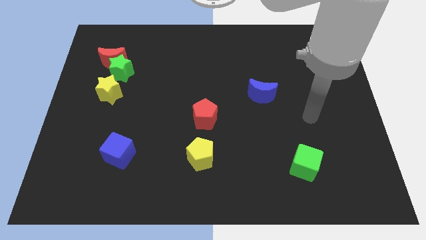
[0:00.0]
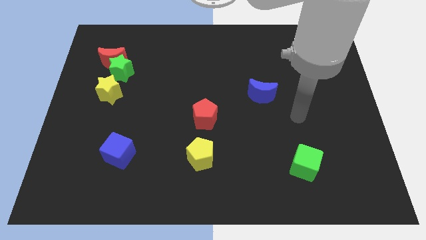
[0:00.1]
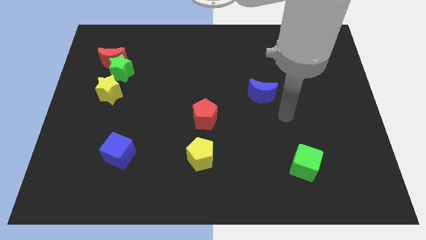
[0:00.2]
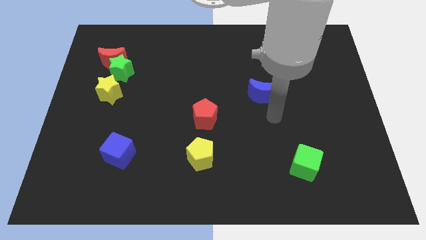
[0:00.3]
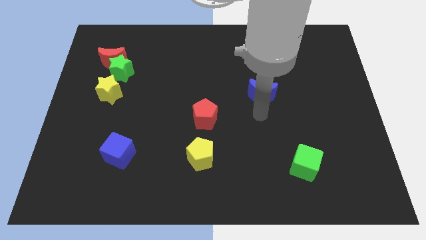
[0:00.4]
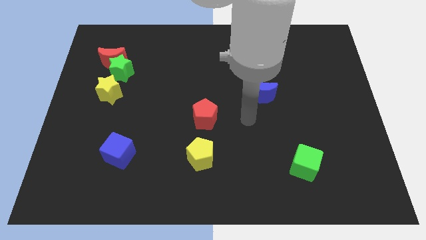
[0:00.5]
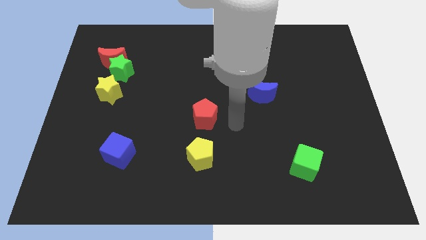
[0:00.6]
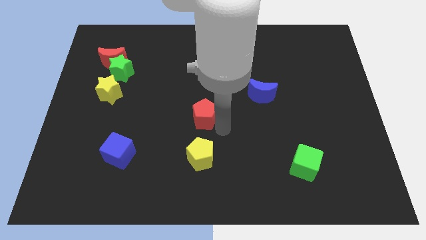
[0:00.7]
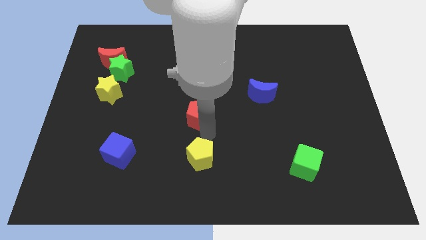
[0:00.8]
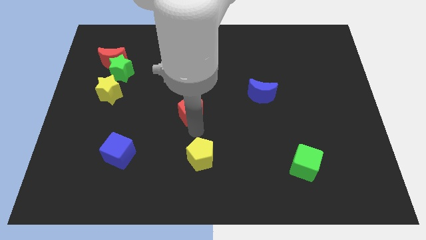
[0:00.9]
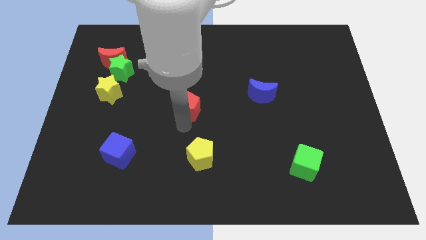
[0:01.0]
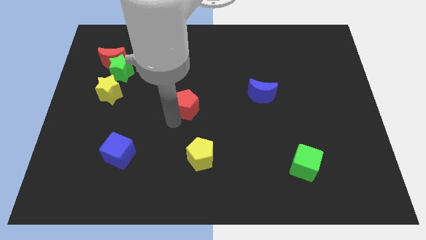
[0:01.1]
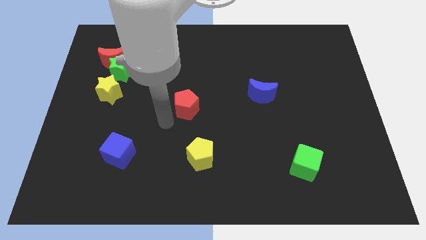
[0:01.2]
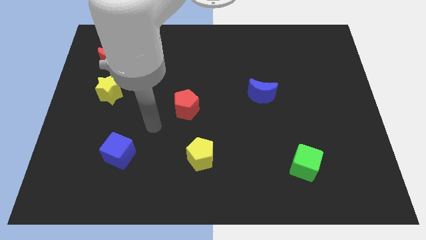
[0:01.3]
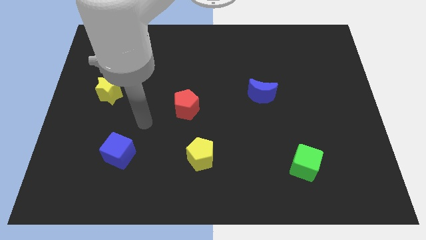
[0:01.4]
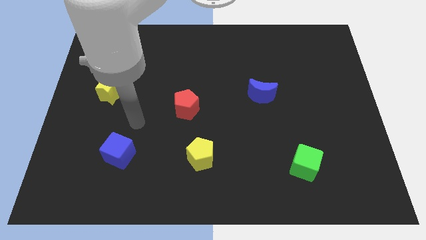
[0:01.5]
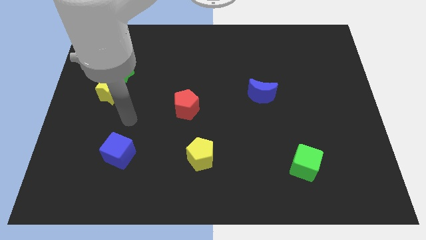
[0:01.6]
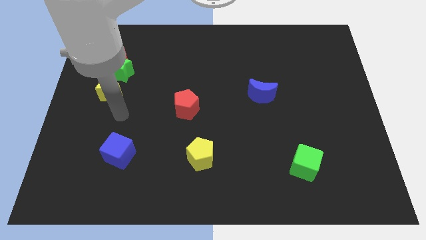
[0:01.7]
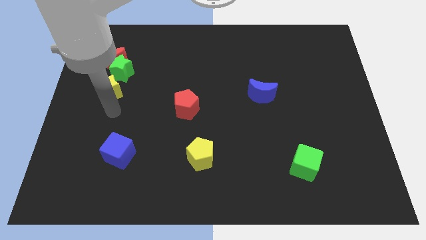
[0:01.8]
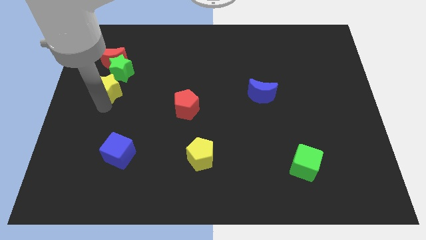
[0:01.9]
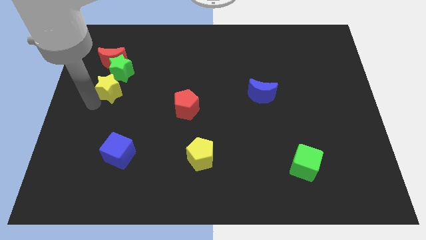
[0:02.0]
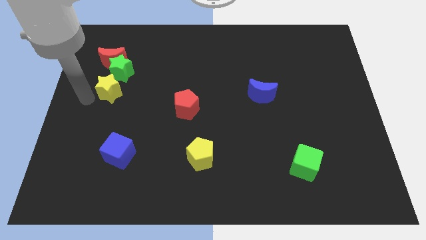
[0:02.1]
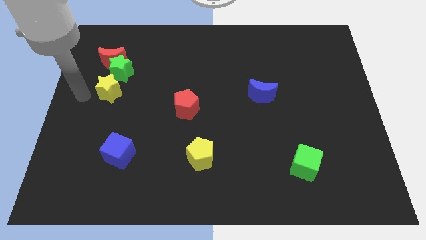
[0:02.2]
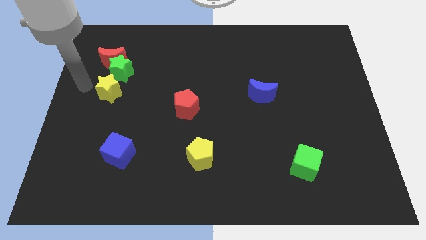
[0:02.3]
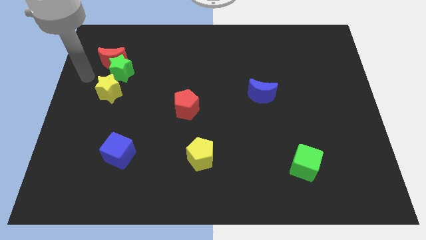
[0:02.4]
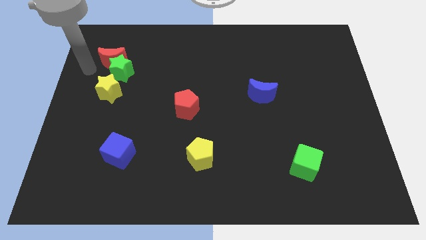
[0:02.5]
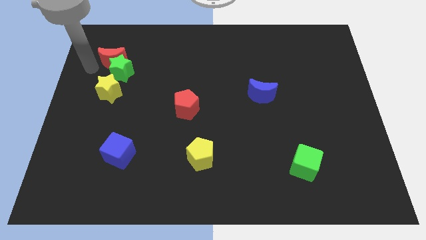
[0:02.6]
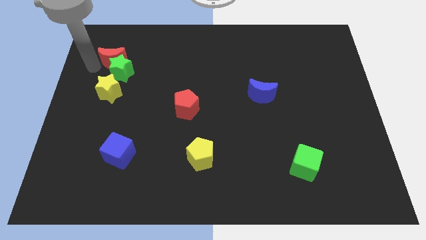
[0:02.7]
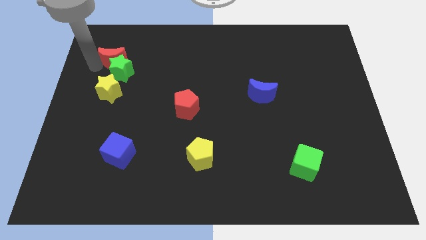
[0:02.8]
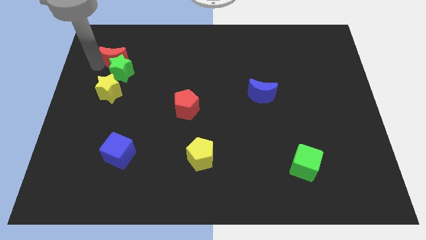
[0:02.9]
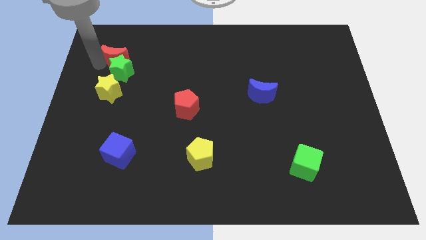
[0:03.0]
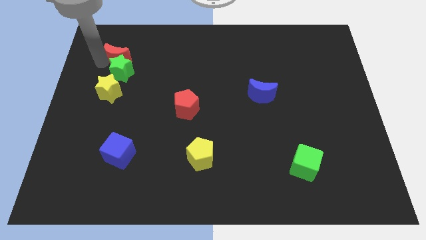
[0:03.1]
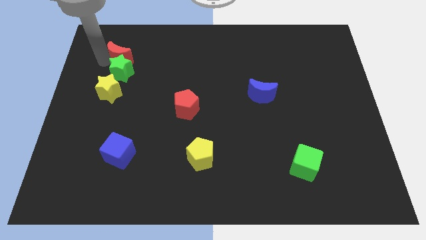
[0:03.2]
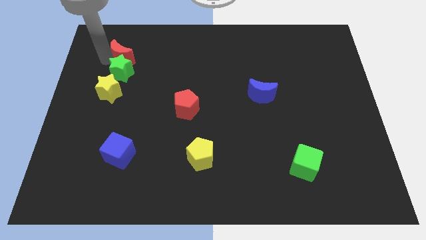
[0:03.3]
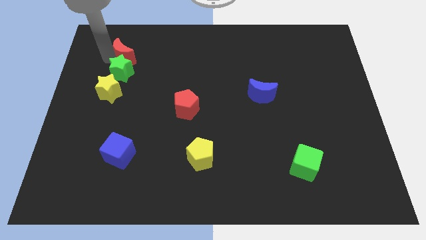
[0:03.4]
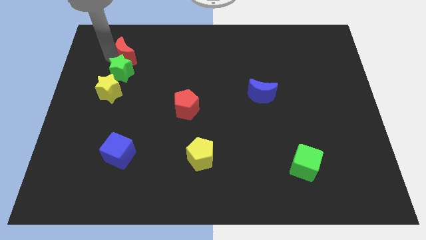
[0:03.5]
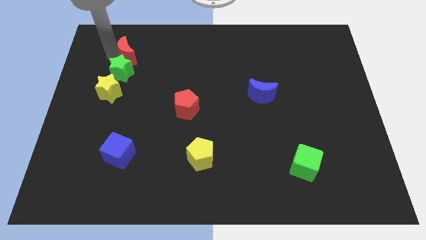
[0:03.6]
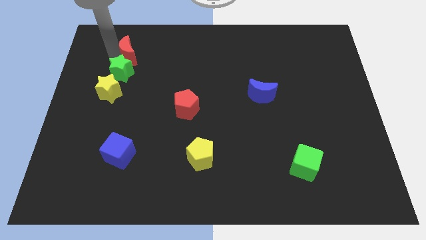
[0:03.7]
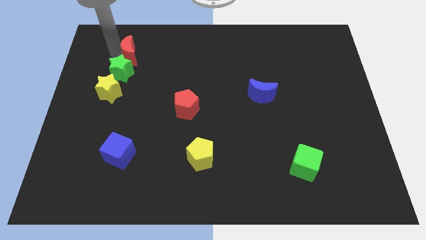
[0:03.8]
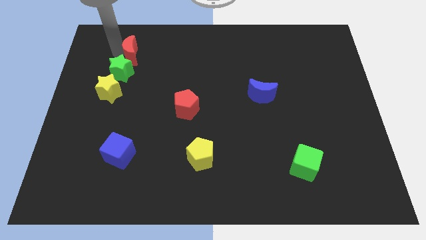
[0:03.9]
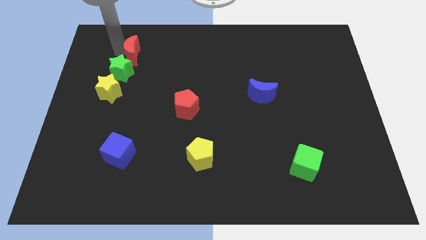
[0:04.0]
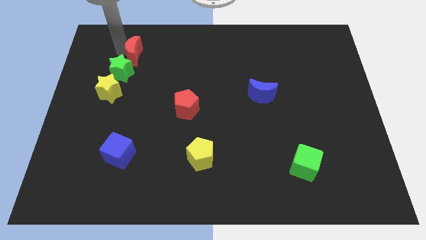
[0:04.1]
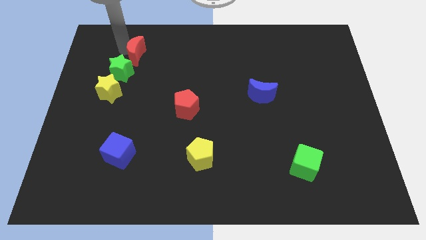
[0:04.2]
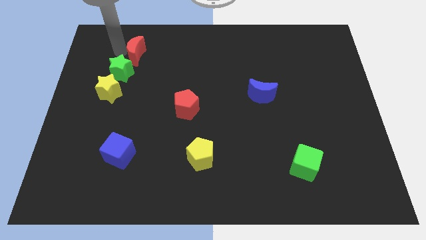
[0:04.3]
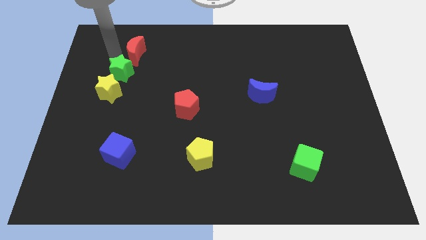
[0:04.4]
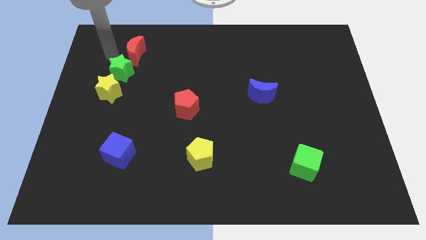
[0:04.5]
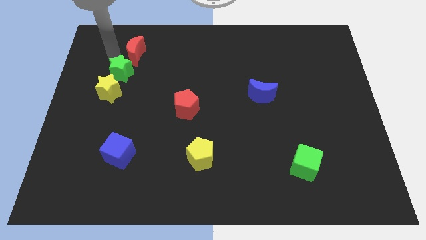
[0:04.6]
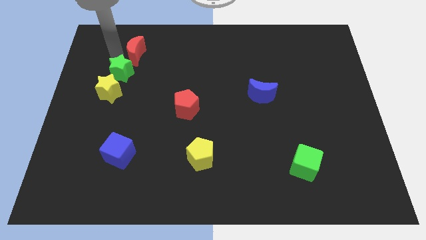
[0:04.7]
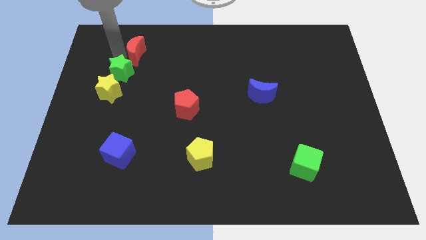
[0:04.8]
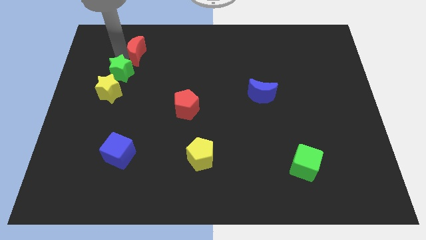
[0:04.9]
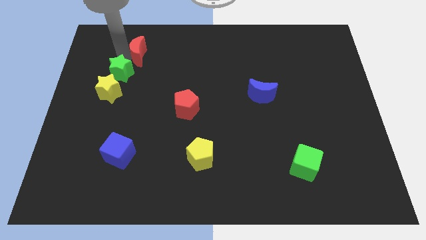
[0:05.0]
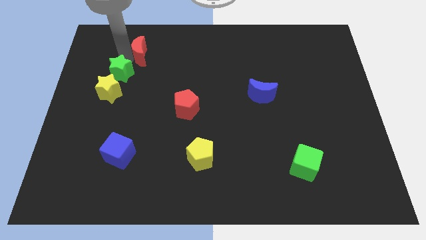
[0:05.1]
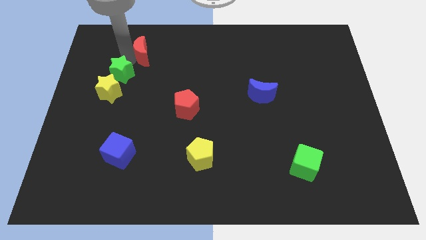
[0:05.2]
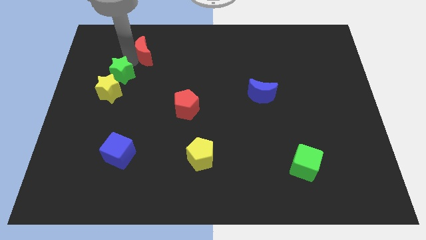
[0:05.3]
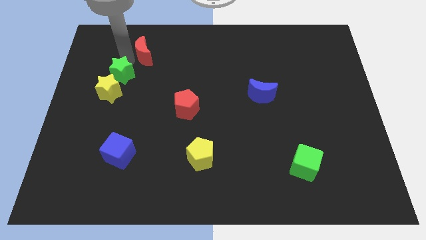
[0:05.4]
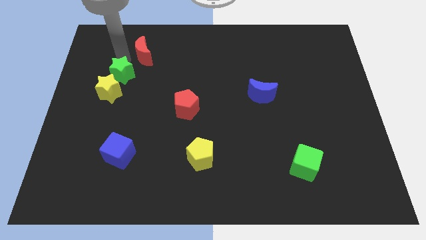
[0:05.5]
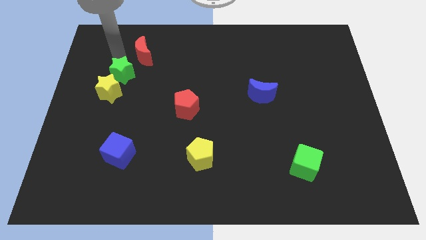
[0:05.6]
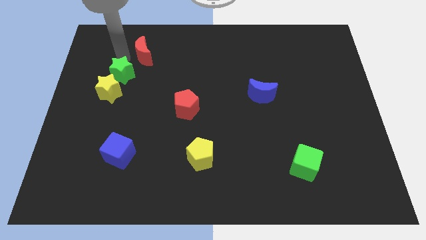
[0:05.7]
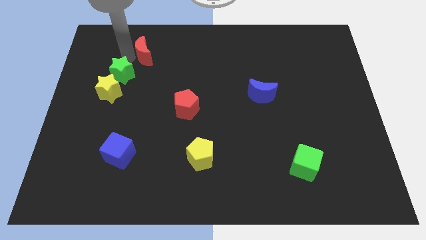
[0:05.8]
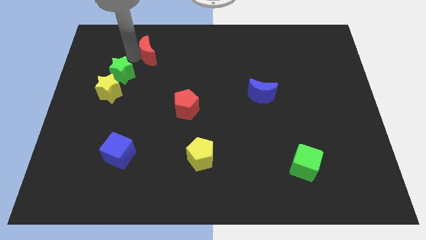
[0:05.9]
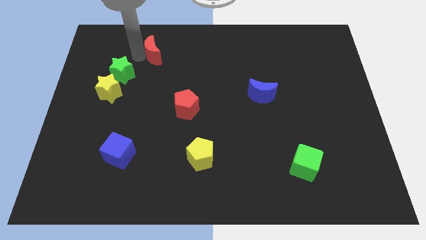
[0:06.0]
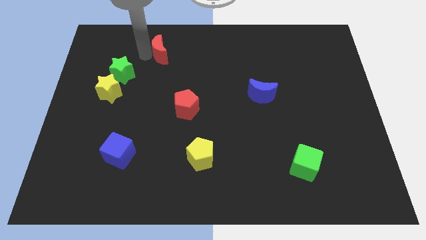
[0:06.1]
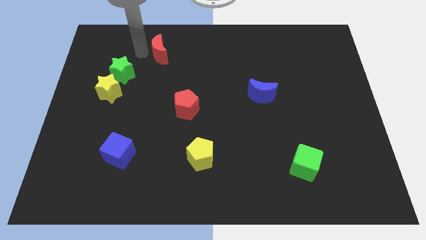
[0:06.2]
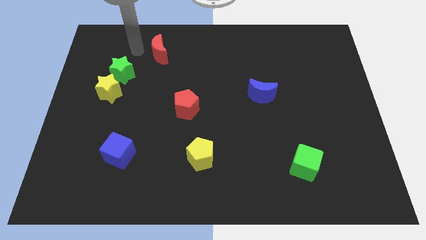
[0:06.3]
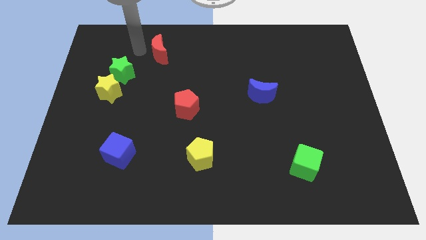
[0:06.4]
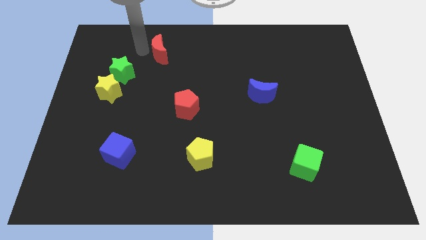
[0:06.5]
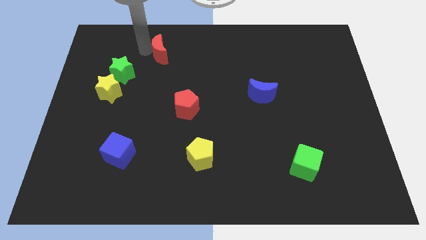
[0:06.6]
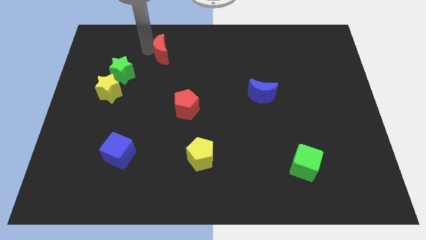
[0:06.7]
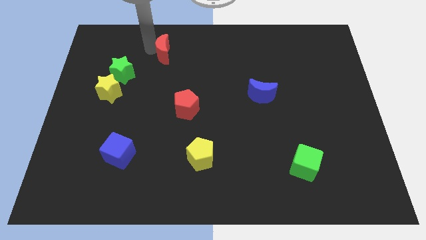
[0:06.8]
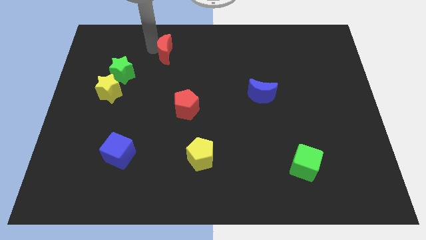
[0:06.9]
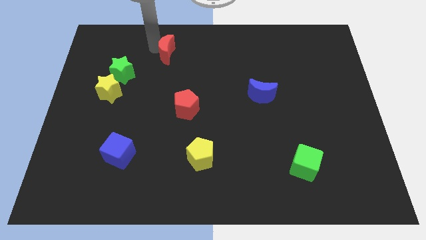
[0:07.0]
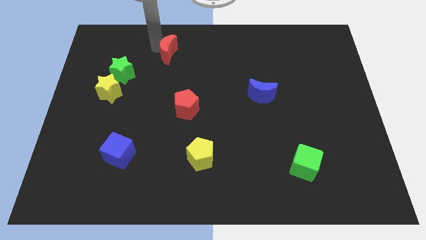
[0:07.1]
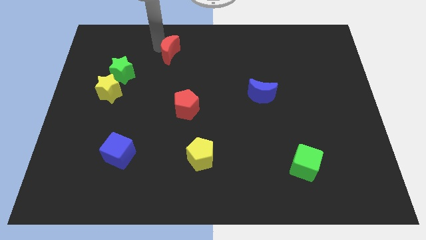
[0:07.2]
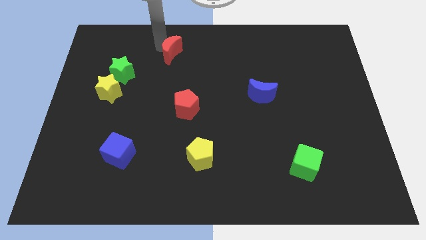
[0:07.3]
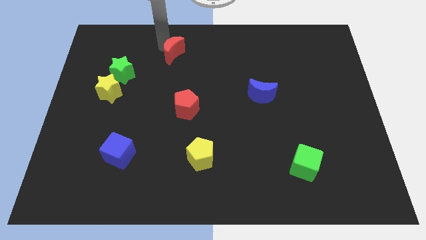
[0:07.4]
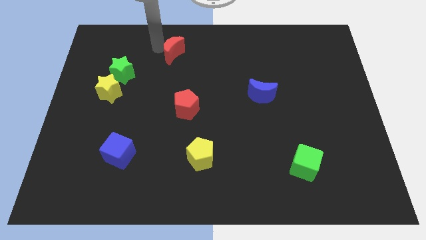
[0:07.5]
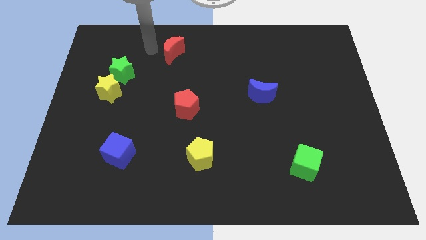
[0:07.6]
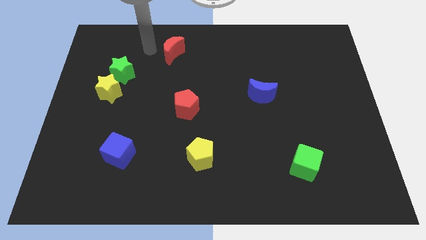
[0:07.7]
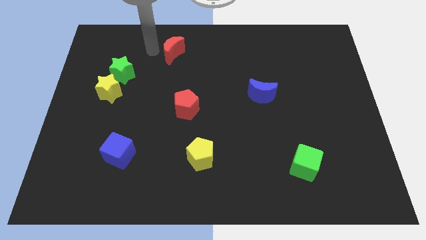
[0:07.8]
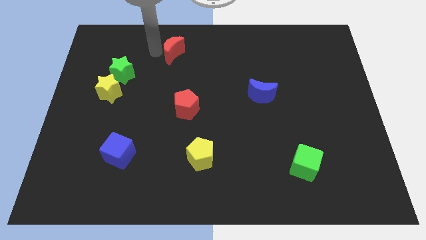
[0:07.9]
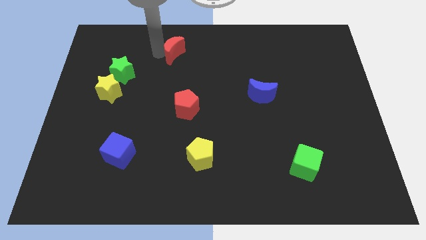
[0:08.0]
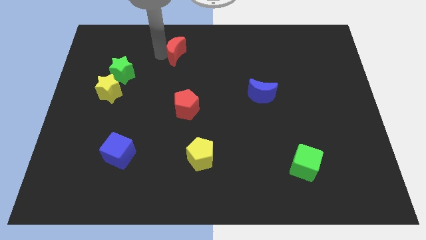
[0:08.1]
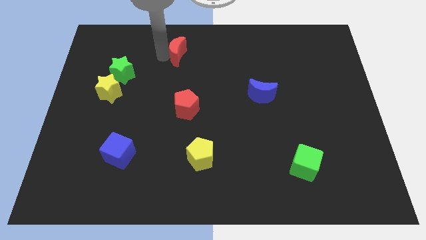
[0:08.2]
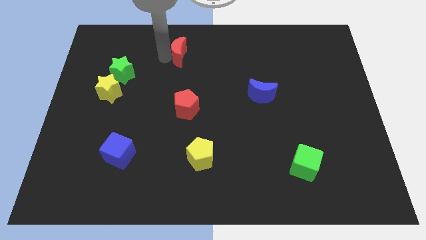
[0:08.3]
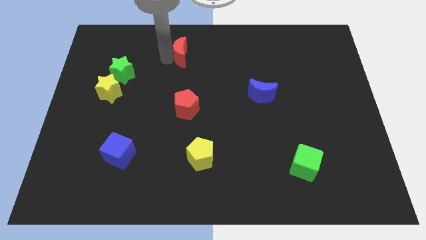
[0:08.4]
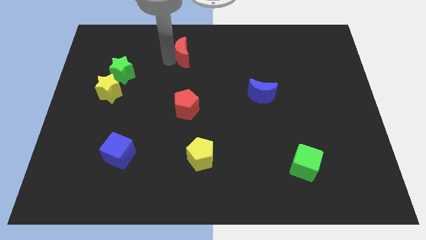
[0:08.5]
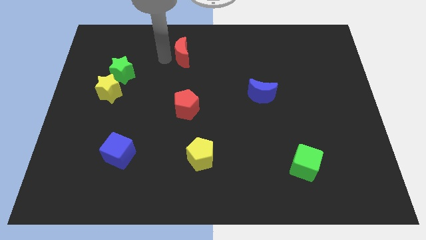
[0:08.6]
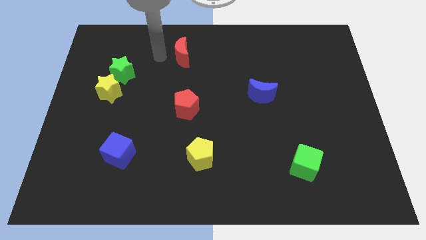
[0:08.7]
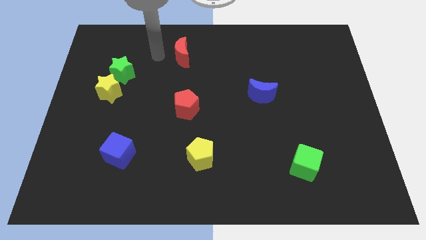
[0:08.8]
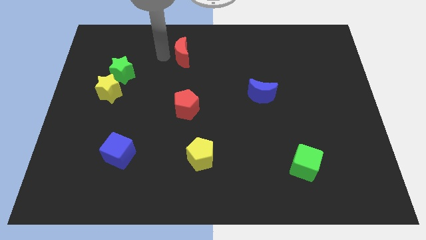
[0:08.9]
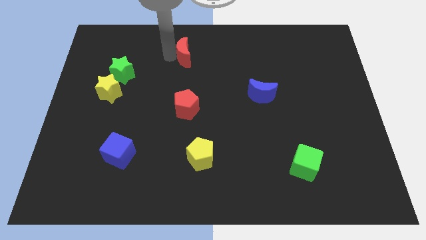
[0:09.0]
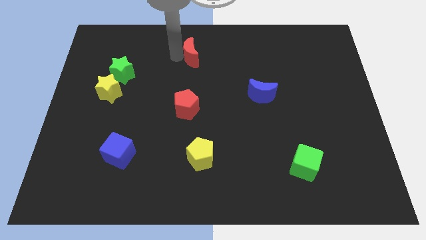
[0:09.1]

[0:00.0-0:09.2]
move the red moon to the right
